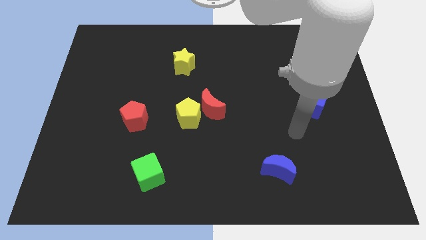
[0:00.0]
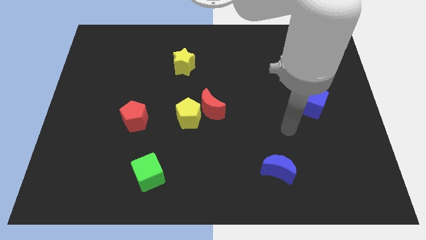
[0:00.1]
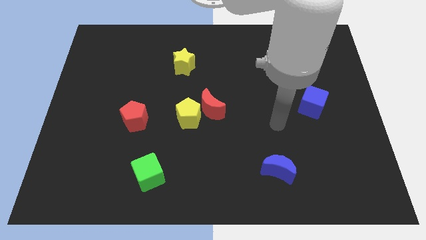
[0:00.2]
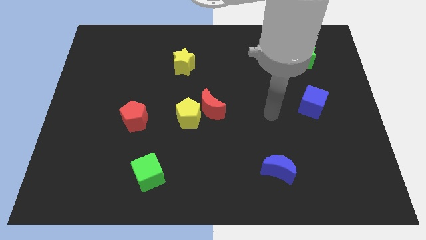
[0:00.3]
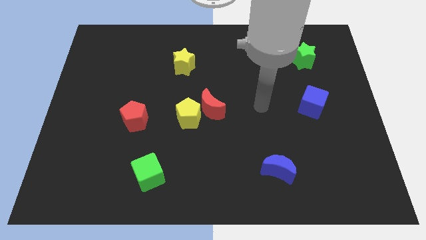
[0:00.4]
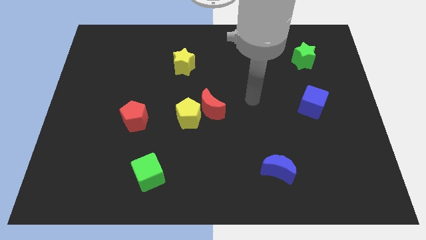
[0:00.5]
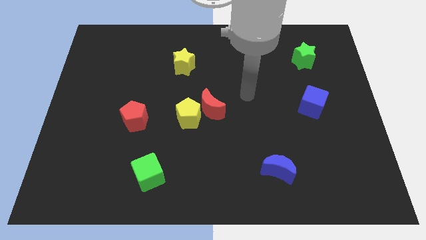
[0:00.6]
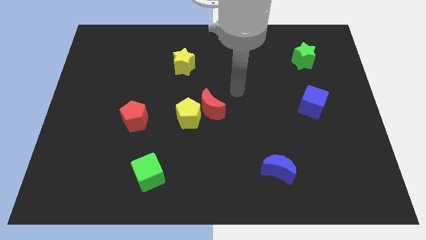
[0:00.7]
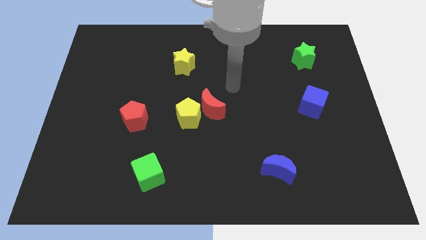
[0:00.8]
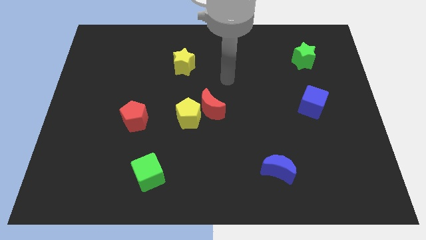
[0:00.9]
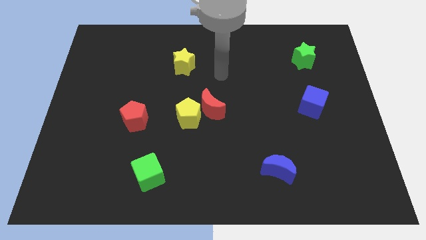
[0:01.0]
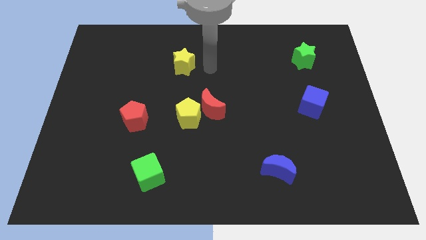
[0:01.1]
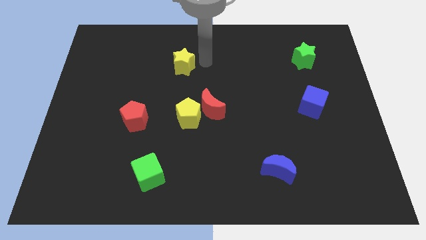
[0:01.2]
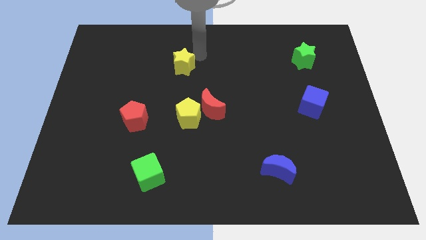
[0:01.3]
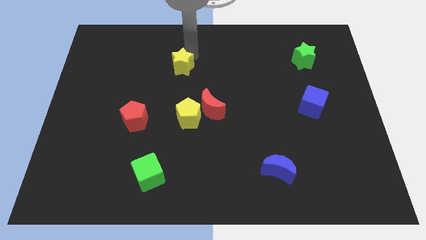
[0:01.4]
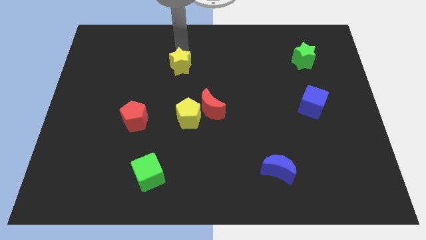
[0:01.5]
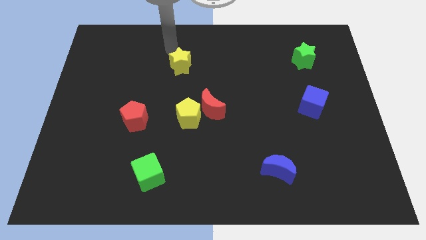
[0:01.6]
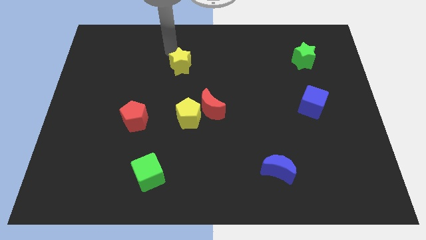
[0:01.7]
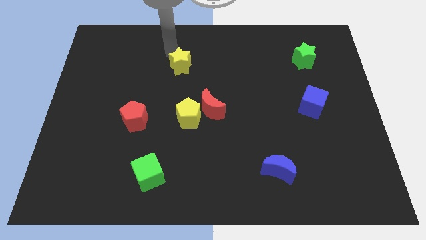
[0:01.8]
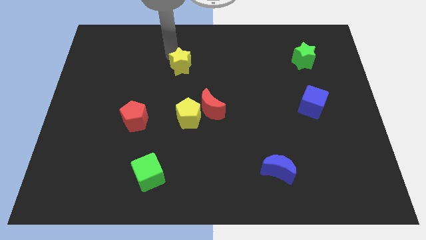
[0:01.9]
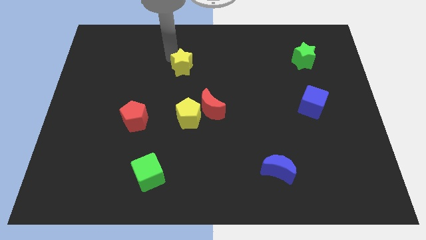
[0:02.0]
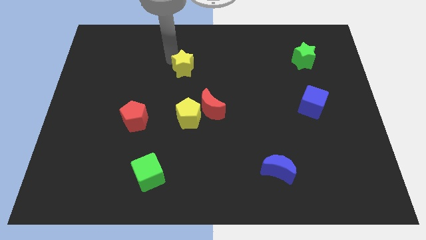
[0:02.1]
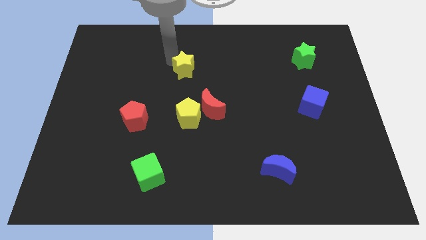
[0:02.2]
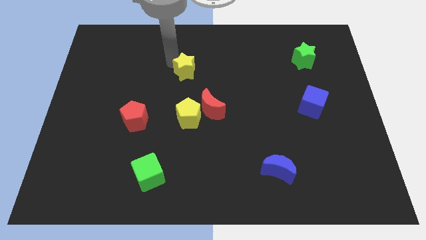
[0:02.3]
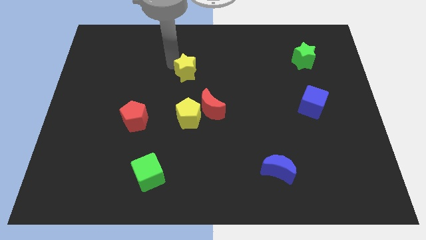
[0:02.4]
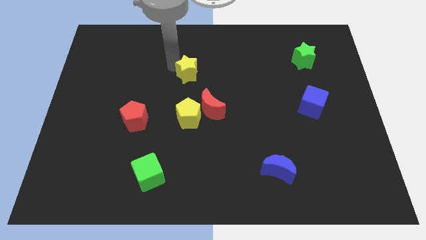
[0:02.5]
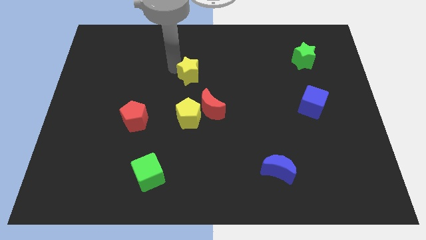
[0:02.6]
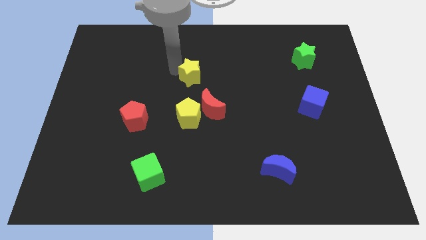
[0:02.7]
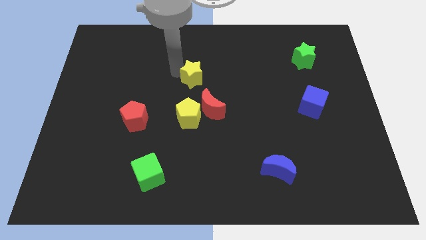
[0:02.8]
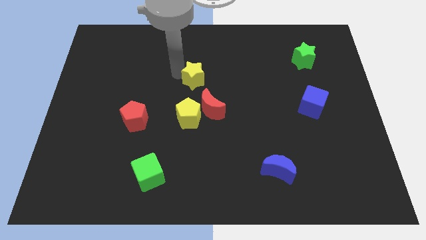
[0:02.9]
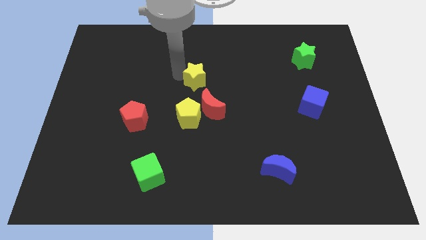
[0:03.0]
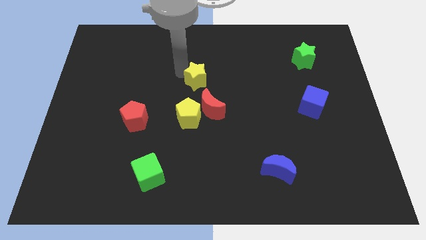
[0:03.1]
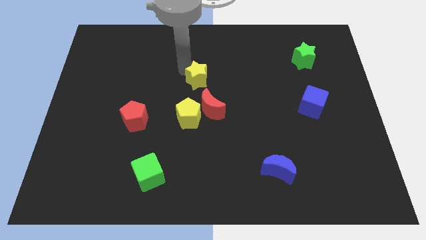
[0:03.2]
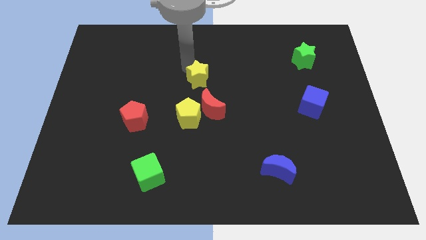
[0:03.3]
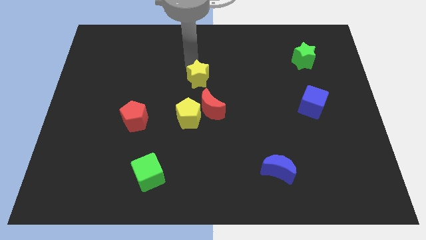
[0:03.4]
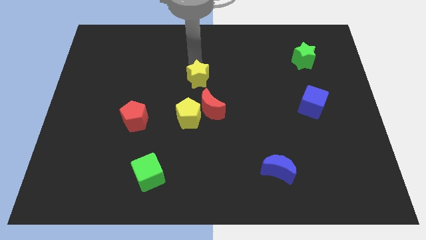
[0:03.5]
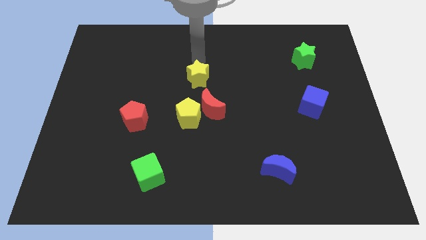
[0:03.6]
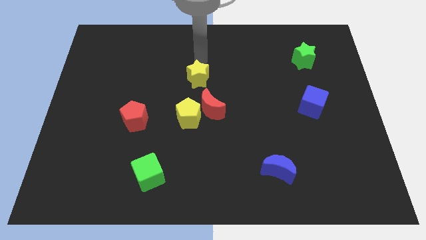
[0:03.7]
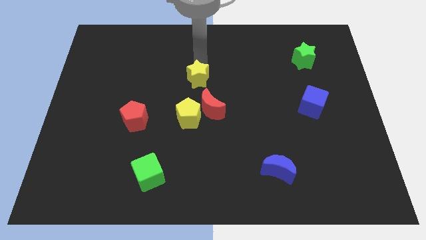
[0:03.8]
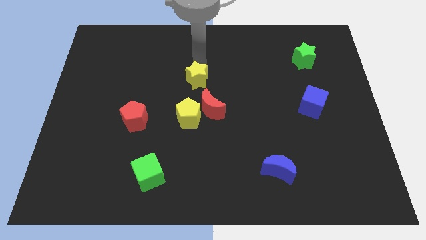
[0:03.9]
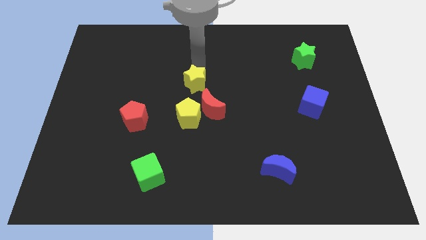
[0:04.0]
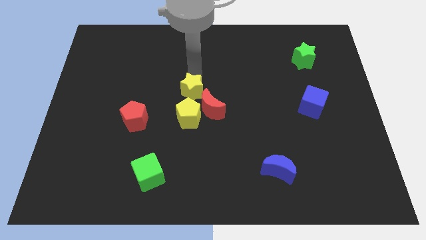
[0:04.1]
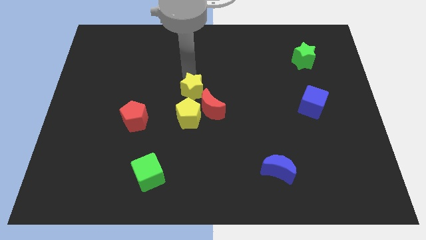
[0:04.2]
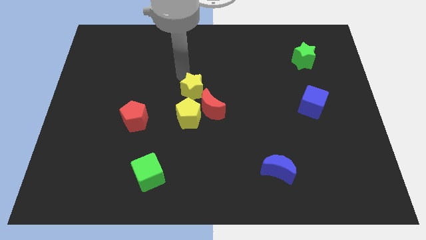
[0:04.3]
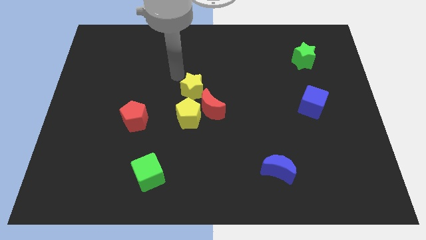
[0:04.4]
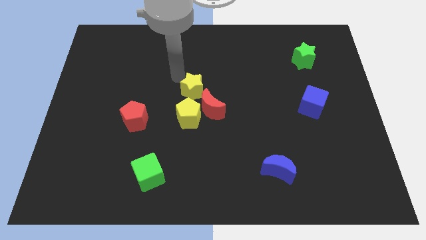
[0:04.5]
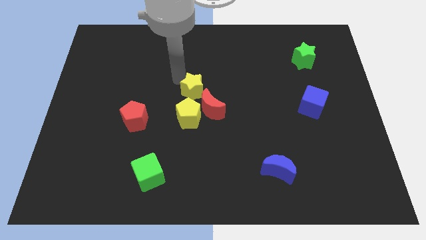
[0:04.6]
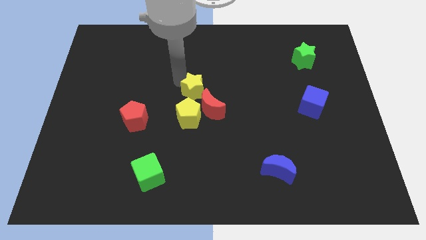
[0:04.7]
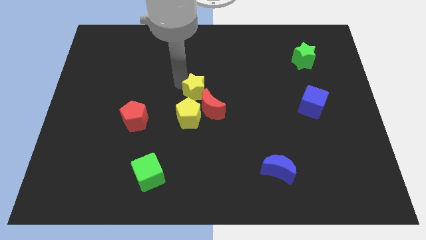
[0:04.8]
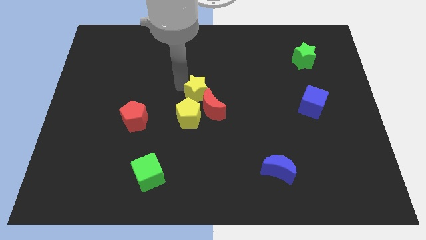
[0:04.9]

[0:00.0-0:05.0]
slide the yellow star next to the red moon

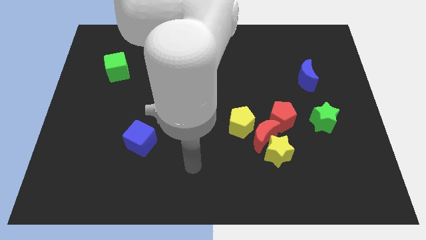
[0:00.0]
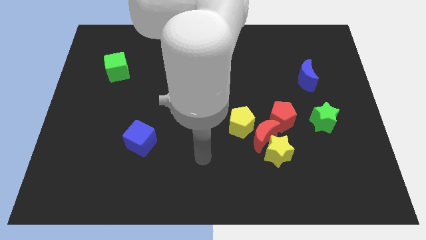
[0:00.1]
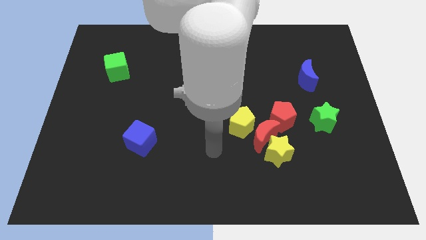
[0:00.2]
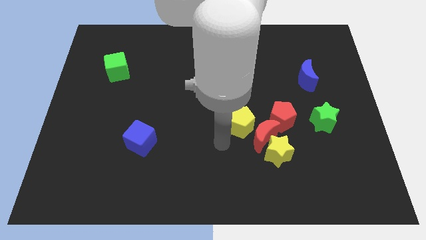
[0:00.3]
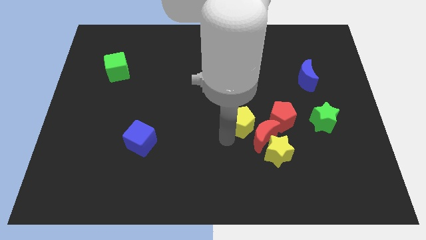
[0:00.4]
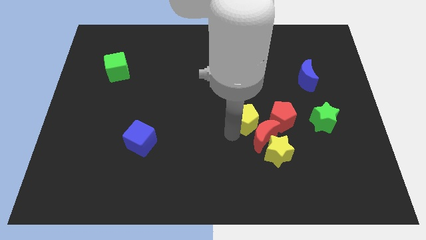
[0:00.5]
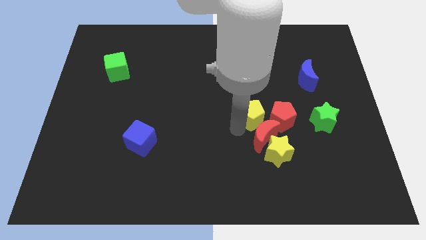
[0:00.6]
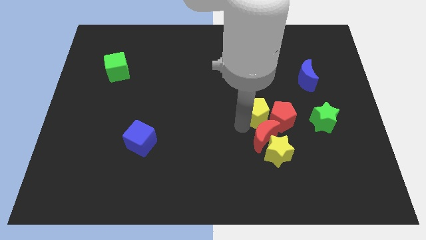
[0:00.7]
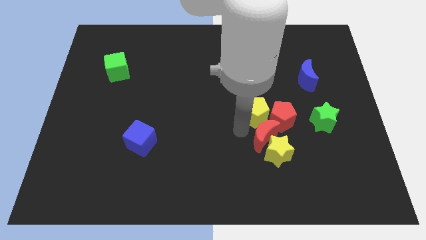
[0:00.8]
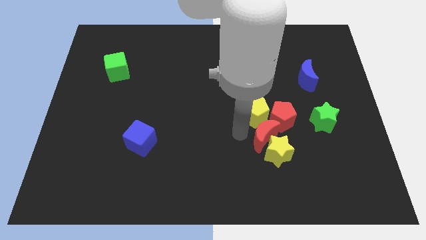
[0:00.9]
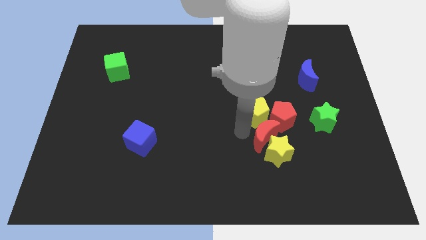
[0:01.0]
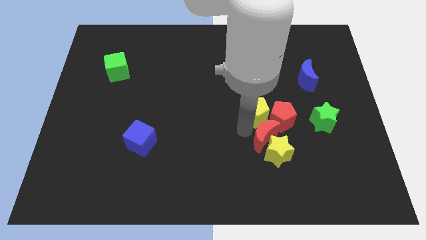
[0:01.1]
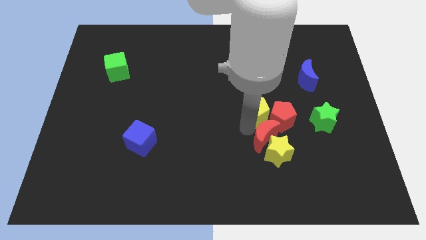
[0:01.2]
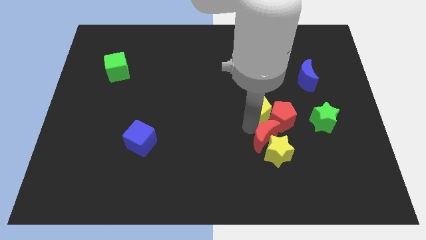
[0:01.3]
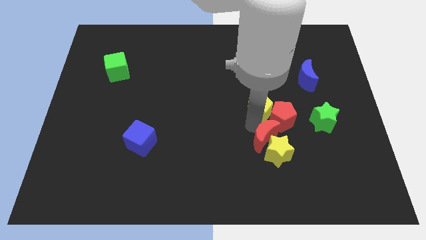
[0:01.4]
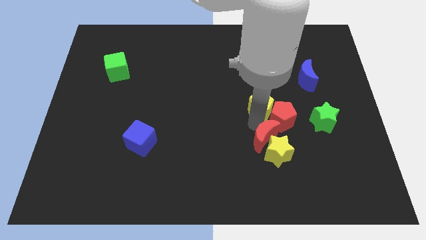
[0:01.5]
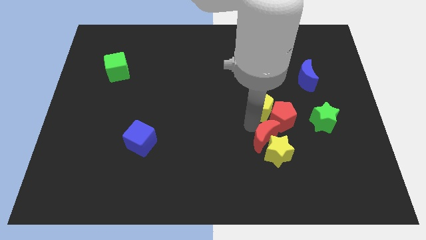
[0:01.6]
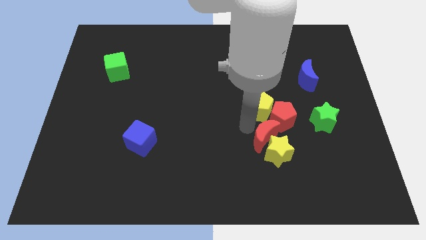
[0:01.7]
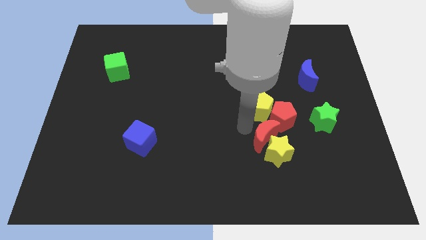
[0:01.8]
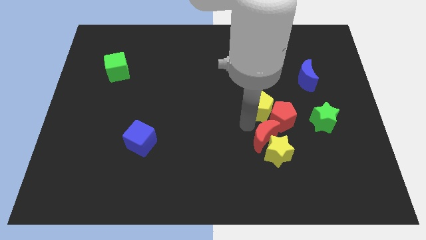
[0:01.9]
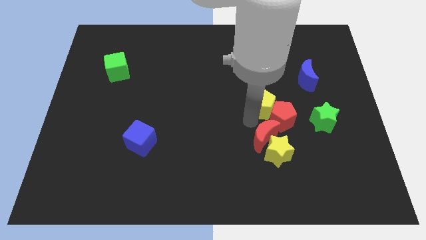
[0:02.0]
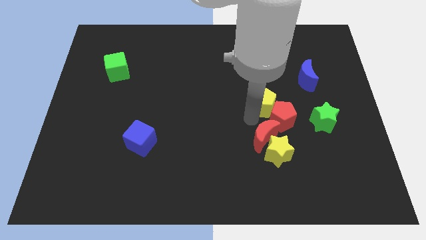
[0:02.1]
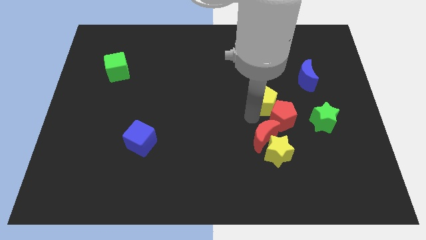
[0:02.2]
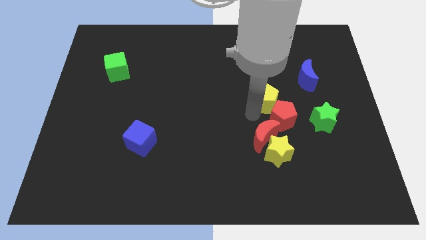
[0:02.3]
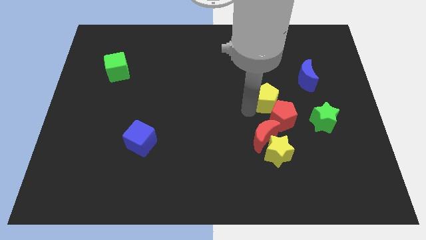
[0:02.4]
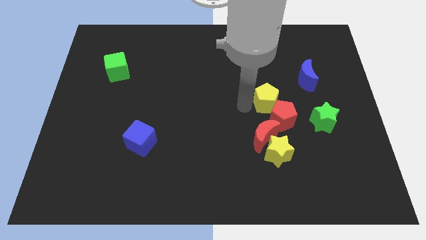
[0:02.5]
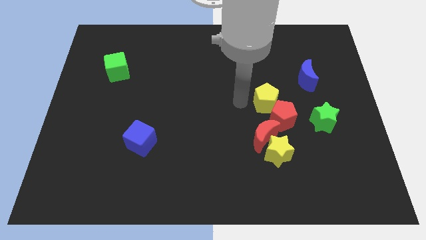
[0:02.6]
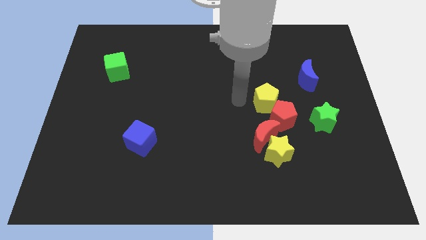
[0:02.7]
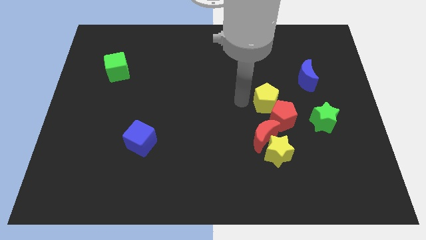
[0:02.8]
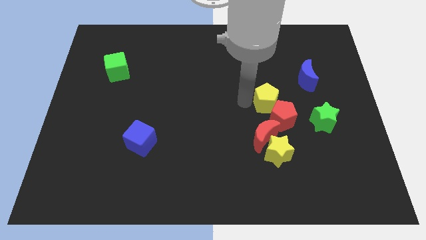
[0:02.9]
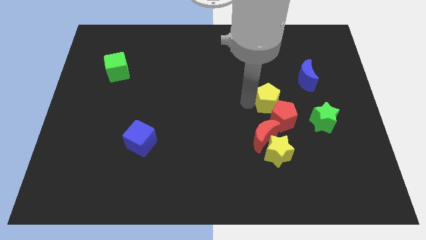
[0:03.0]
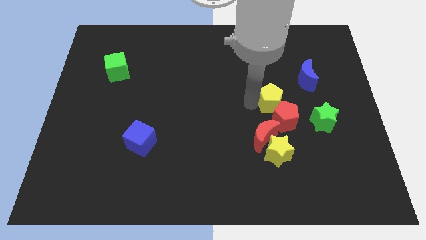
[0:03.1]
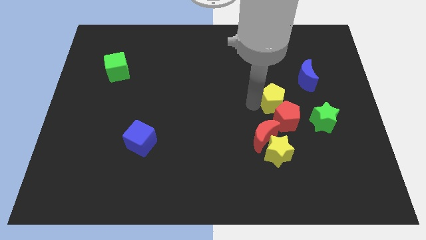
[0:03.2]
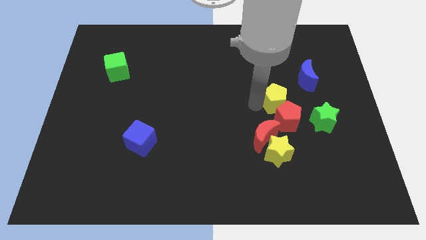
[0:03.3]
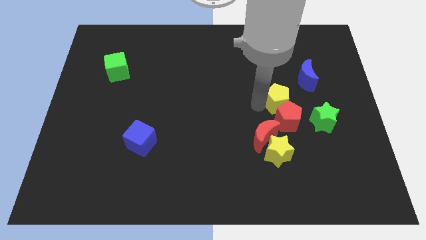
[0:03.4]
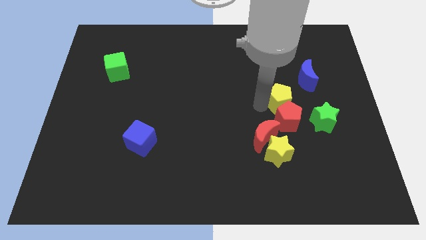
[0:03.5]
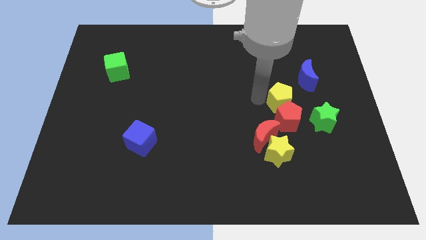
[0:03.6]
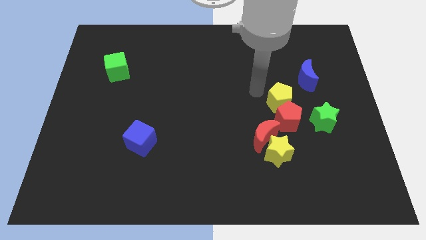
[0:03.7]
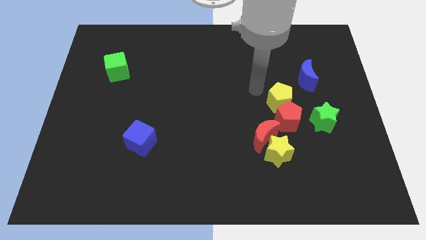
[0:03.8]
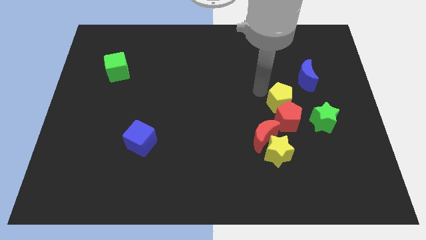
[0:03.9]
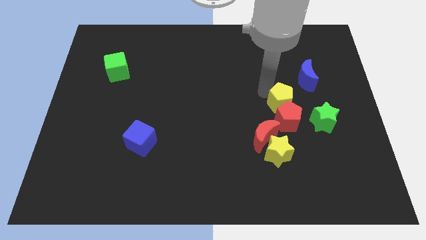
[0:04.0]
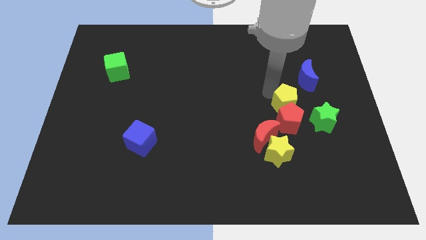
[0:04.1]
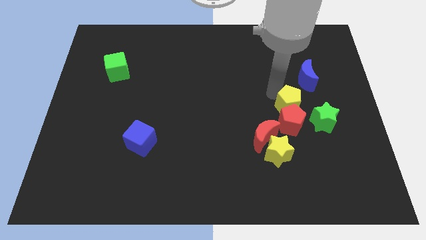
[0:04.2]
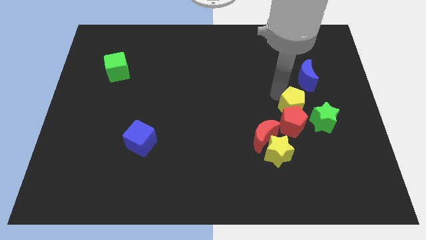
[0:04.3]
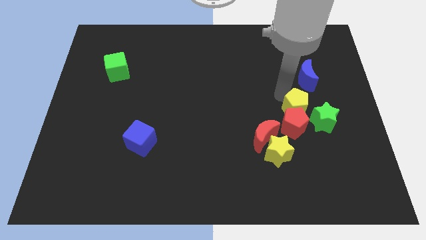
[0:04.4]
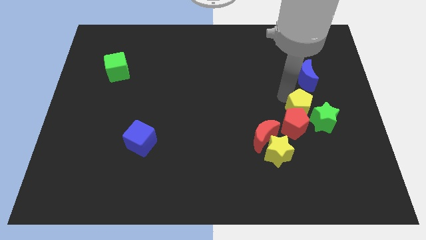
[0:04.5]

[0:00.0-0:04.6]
put the yellow pentagon next to the green star
